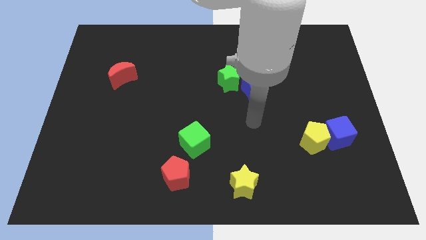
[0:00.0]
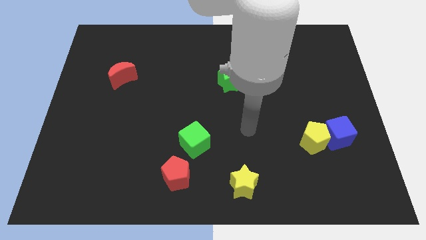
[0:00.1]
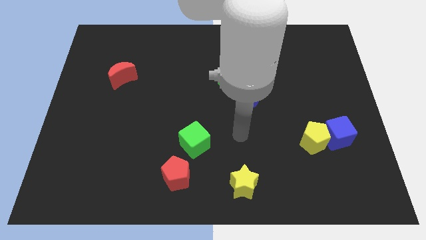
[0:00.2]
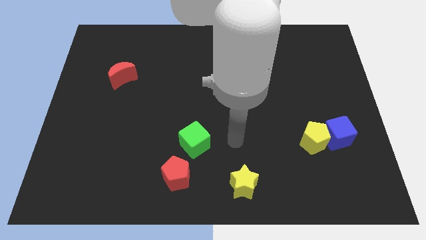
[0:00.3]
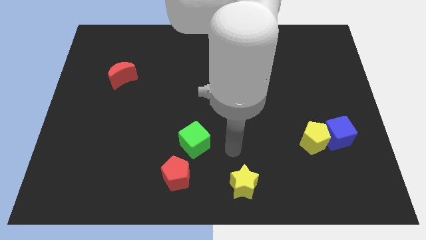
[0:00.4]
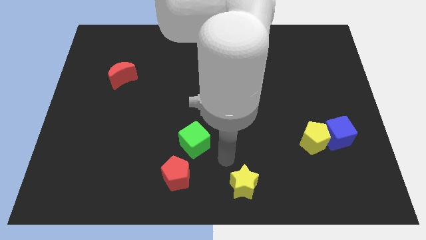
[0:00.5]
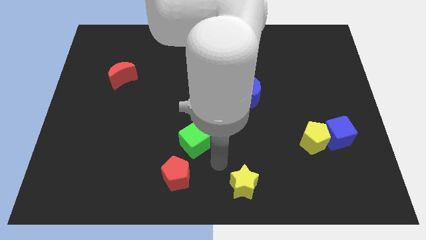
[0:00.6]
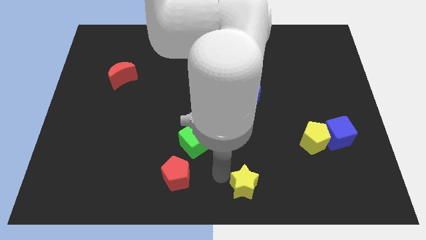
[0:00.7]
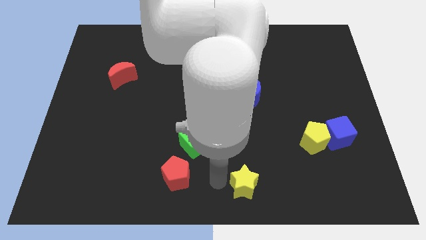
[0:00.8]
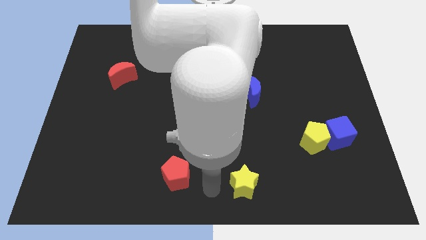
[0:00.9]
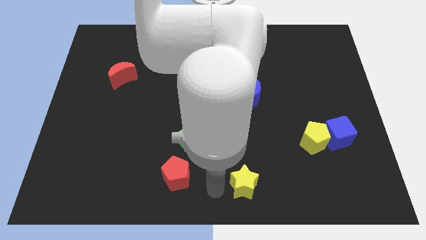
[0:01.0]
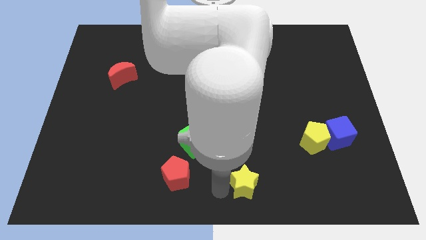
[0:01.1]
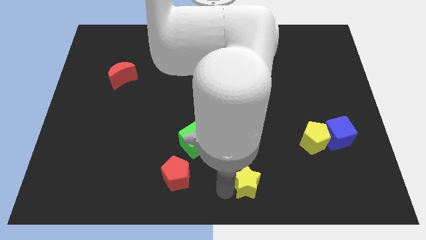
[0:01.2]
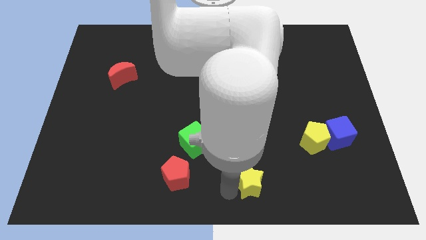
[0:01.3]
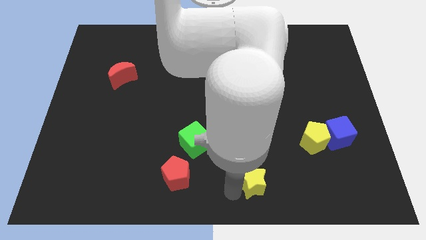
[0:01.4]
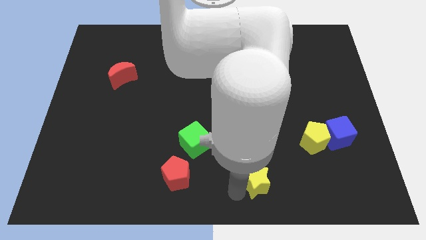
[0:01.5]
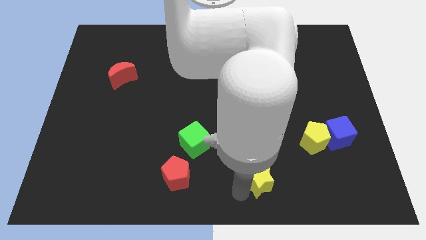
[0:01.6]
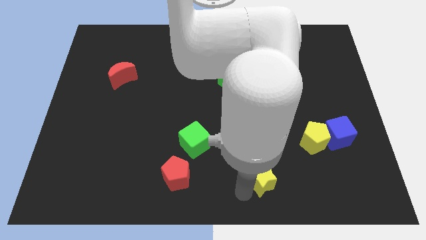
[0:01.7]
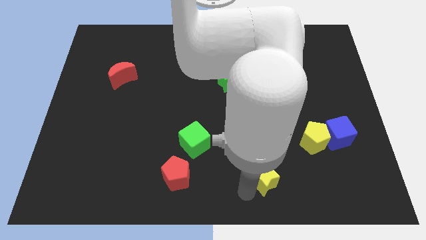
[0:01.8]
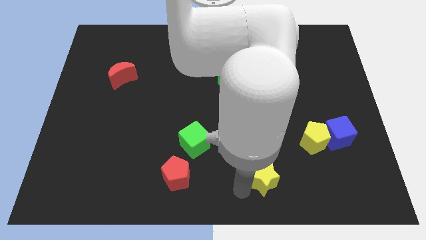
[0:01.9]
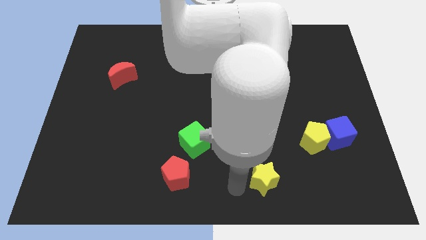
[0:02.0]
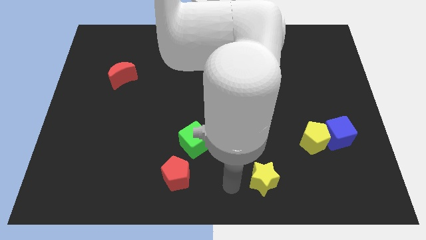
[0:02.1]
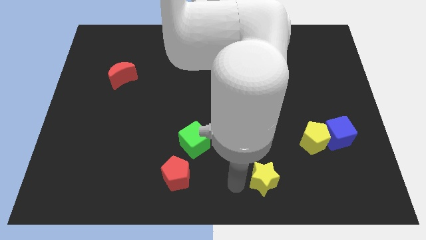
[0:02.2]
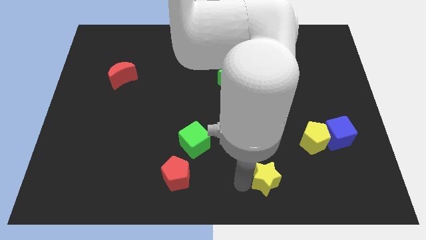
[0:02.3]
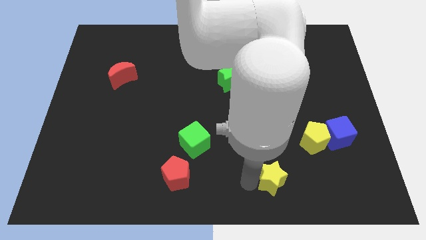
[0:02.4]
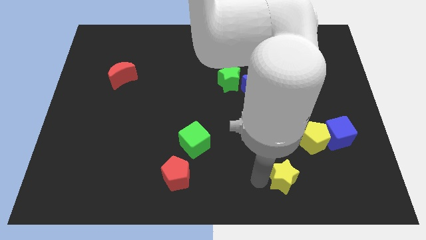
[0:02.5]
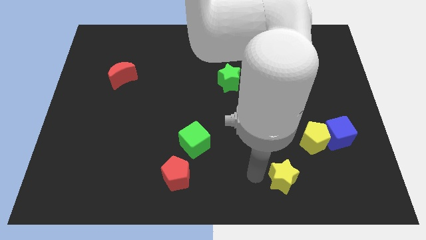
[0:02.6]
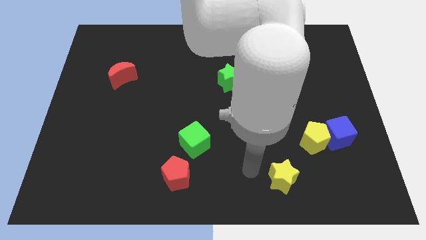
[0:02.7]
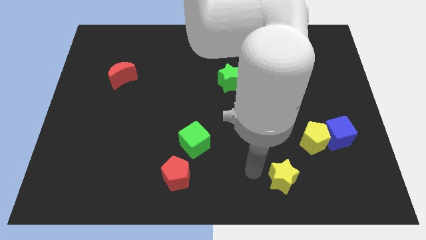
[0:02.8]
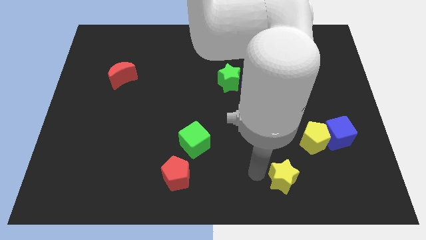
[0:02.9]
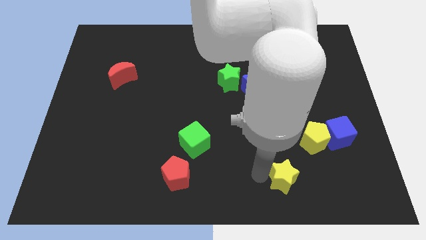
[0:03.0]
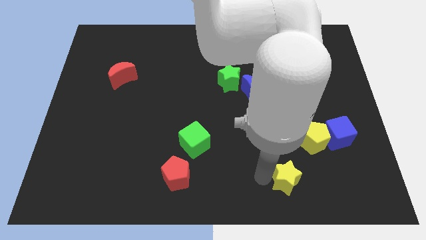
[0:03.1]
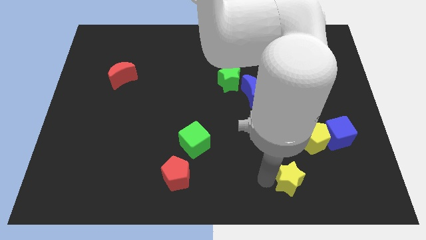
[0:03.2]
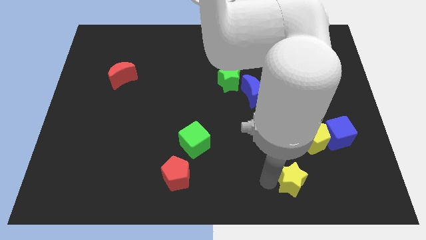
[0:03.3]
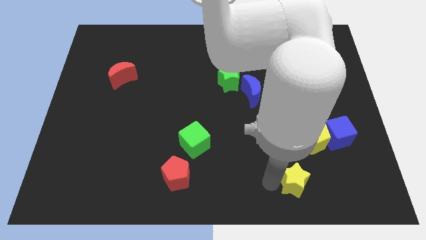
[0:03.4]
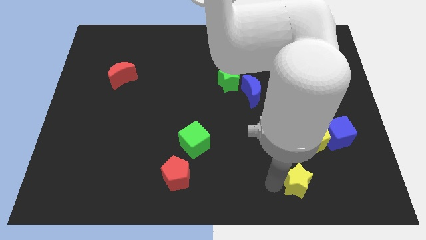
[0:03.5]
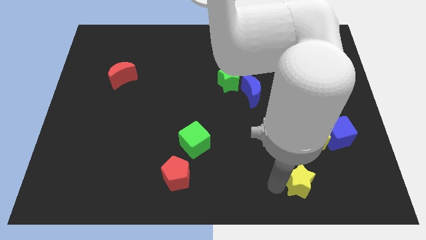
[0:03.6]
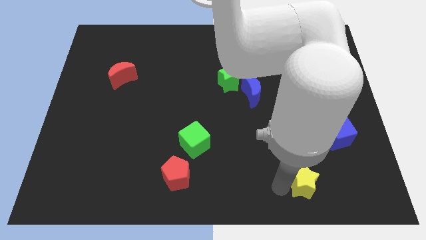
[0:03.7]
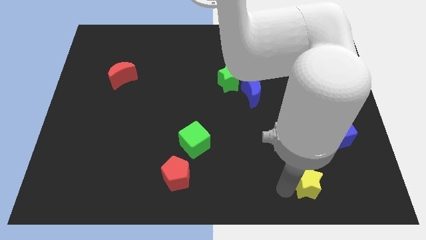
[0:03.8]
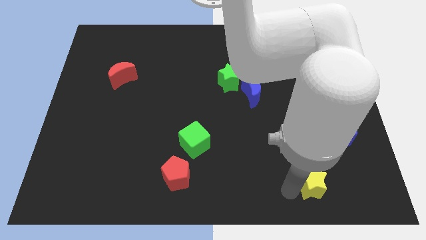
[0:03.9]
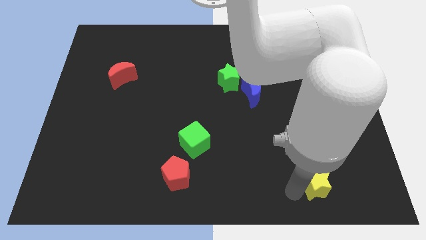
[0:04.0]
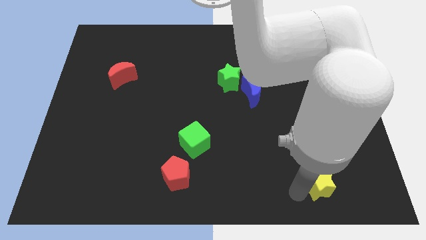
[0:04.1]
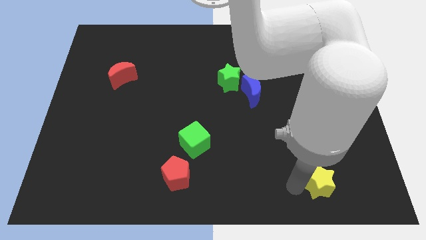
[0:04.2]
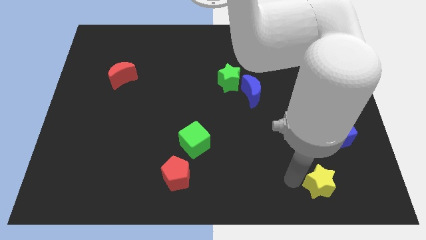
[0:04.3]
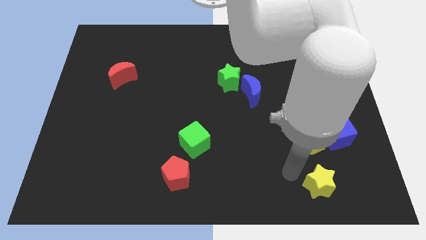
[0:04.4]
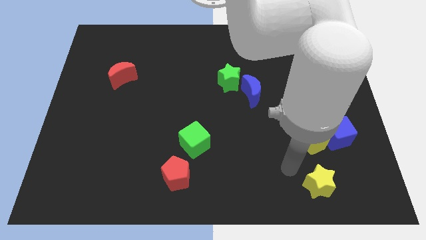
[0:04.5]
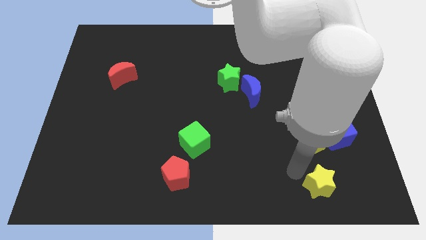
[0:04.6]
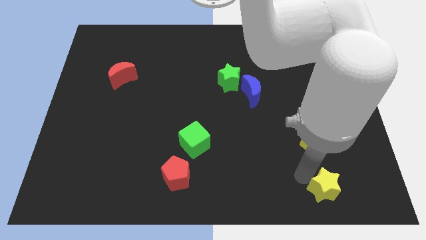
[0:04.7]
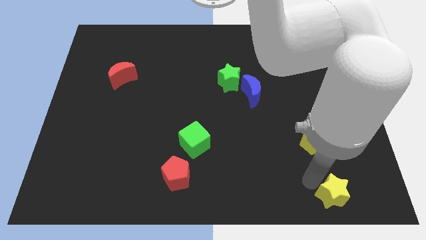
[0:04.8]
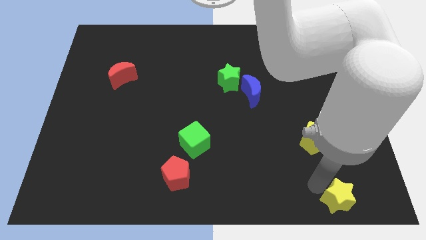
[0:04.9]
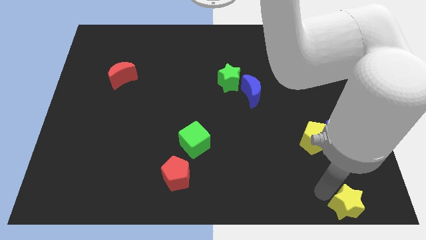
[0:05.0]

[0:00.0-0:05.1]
move the yellow star to the bottom right

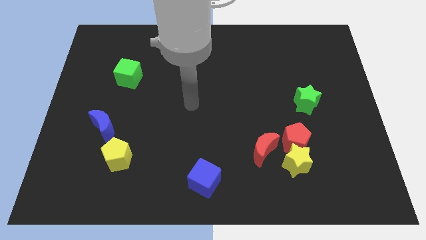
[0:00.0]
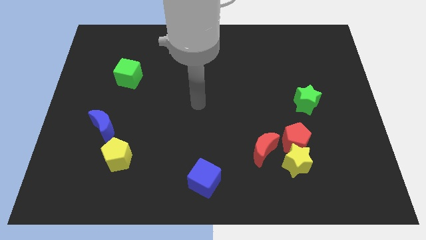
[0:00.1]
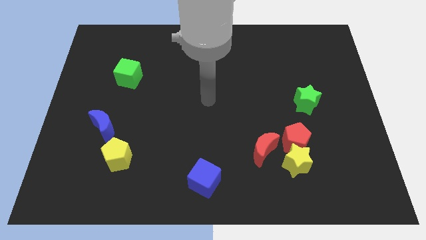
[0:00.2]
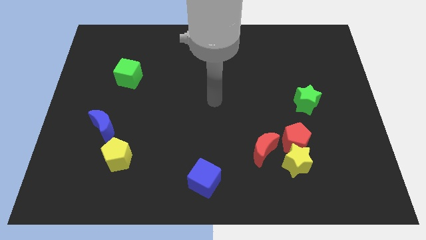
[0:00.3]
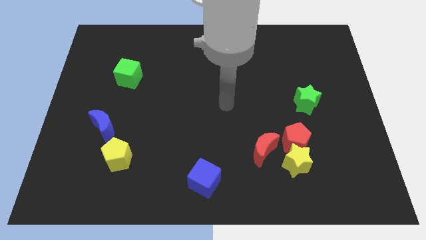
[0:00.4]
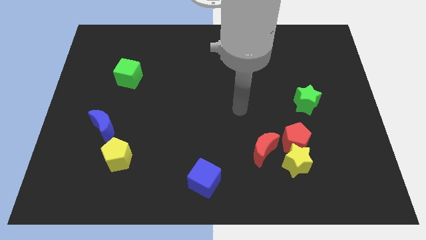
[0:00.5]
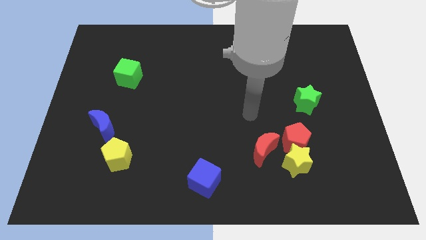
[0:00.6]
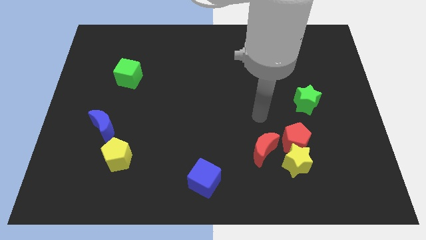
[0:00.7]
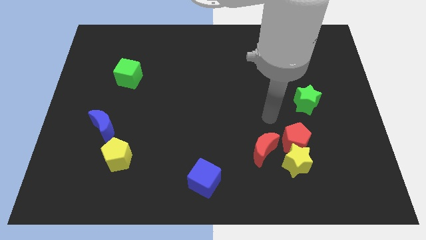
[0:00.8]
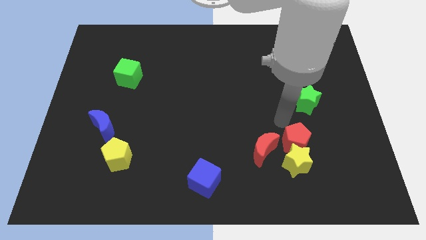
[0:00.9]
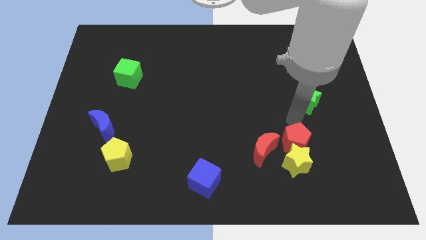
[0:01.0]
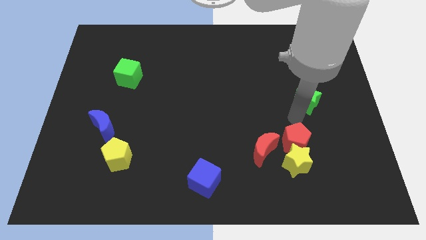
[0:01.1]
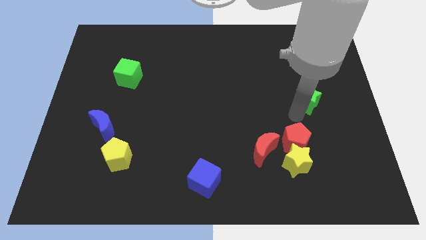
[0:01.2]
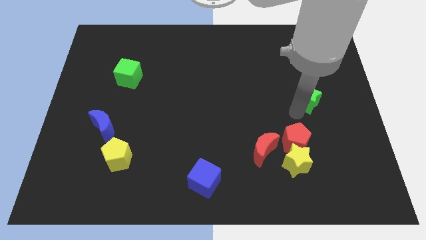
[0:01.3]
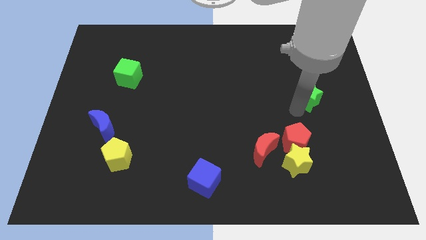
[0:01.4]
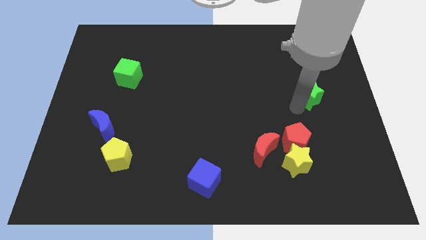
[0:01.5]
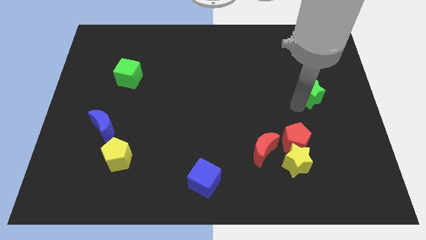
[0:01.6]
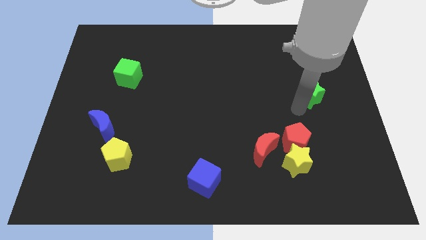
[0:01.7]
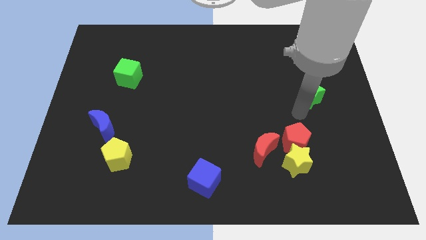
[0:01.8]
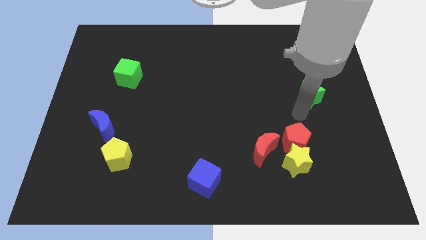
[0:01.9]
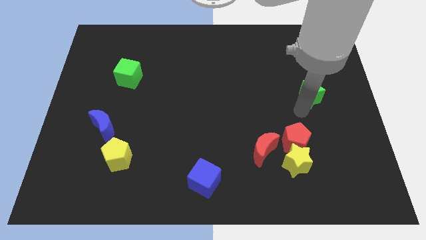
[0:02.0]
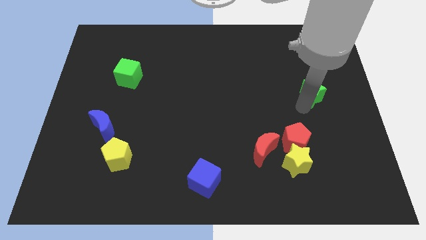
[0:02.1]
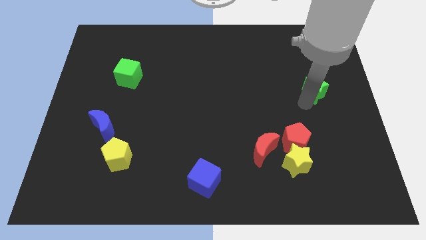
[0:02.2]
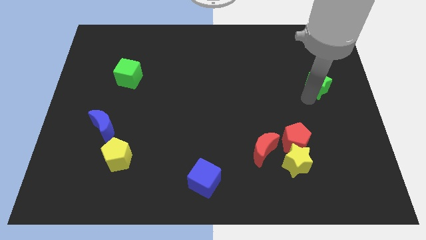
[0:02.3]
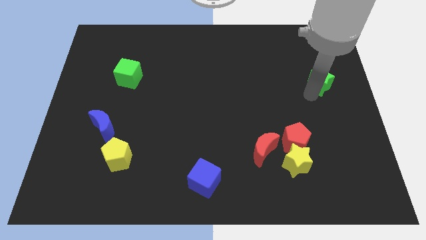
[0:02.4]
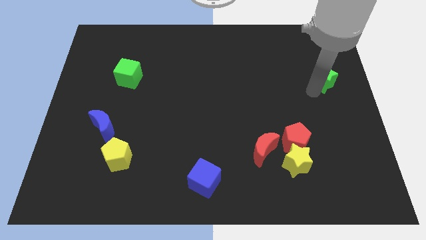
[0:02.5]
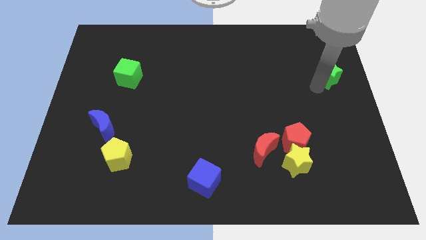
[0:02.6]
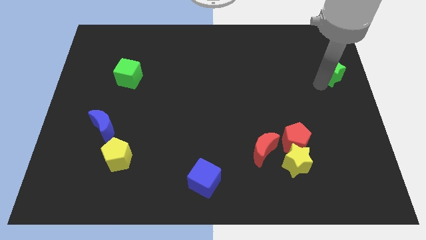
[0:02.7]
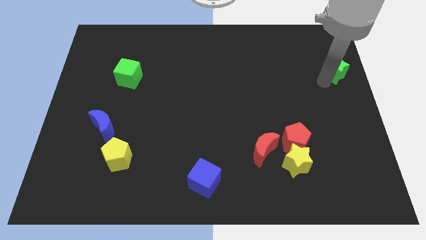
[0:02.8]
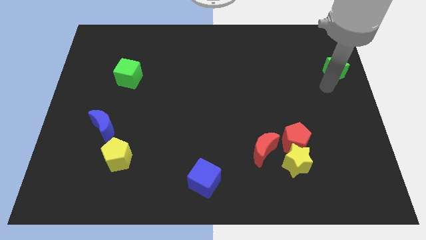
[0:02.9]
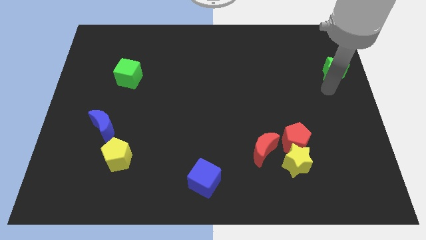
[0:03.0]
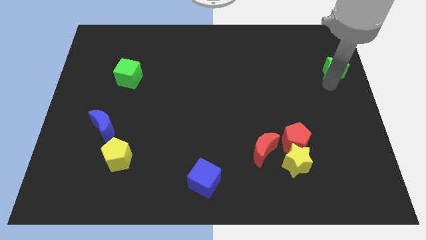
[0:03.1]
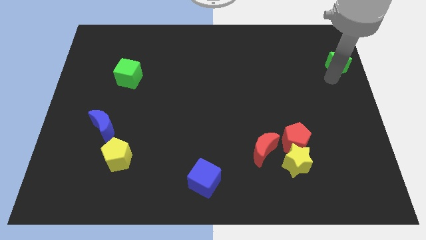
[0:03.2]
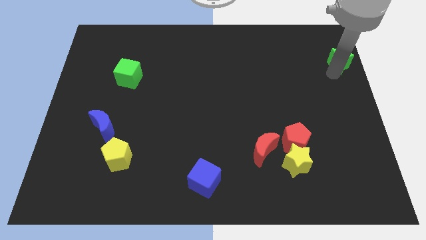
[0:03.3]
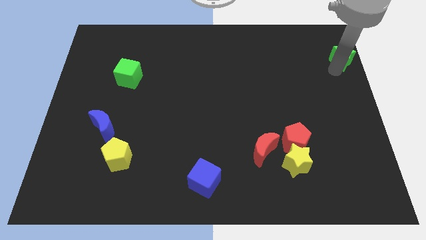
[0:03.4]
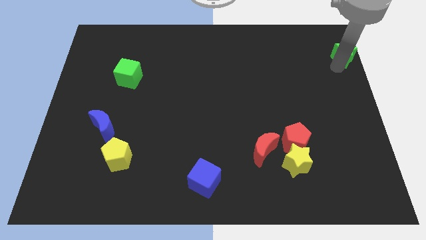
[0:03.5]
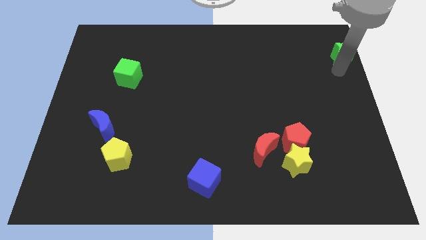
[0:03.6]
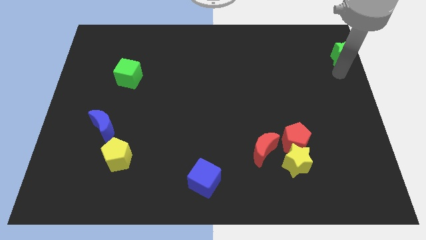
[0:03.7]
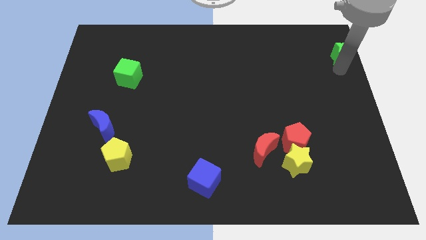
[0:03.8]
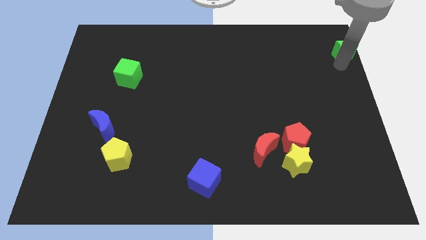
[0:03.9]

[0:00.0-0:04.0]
slide the green star to the top right
